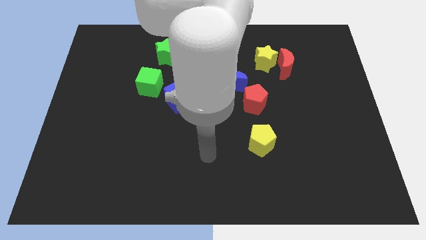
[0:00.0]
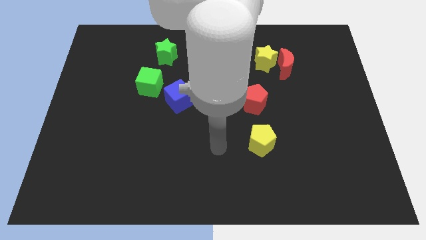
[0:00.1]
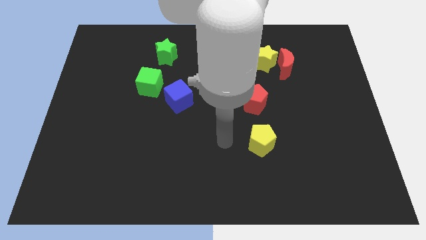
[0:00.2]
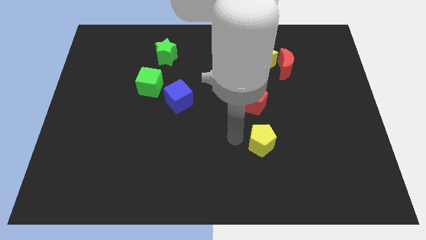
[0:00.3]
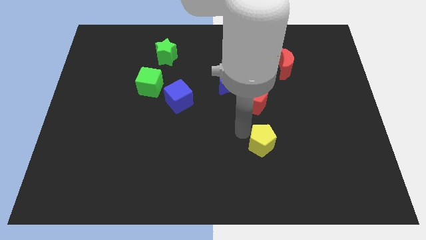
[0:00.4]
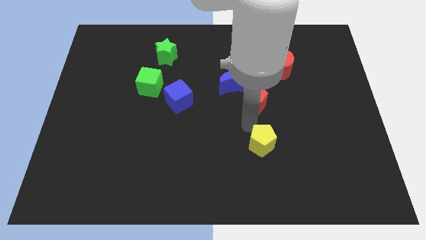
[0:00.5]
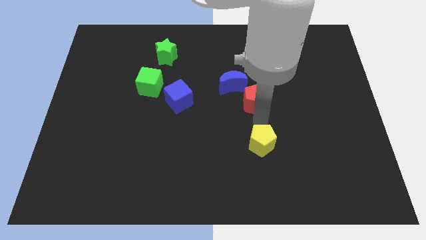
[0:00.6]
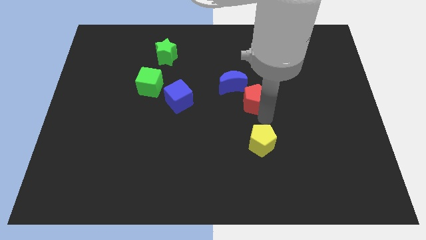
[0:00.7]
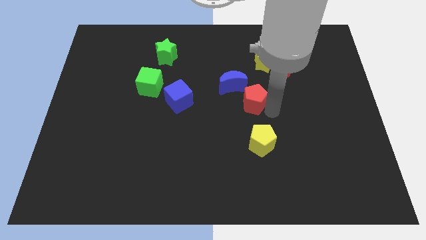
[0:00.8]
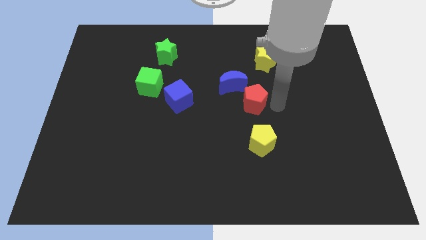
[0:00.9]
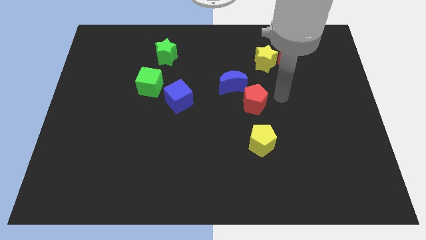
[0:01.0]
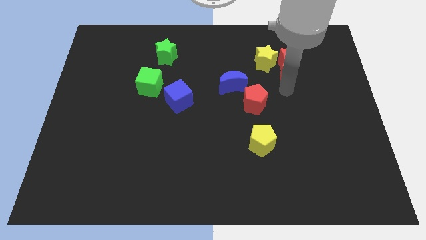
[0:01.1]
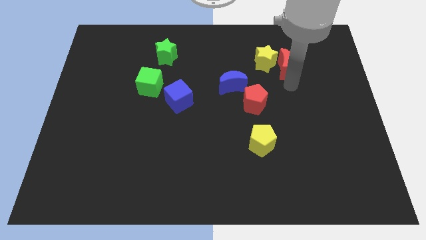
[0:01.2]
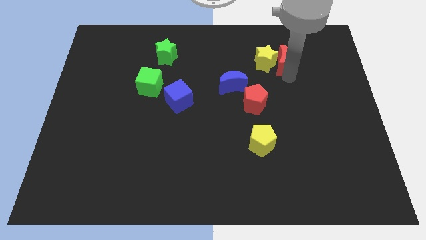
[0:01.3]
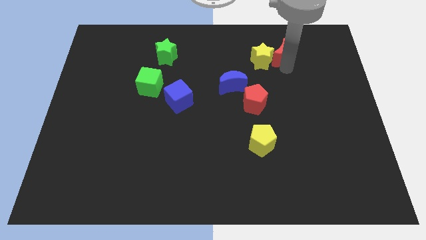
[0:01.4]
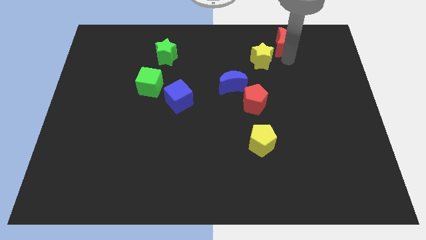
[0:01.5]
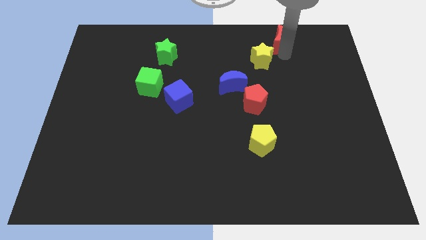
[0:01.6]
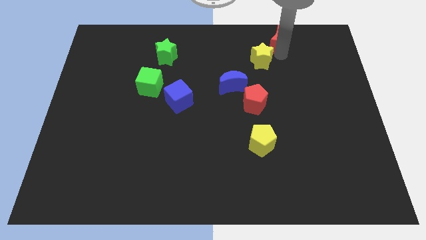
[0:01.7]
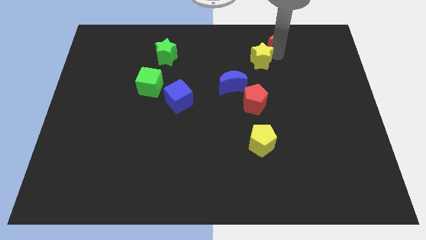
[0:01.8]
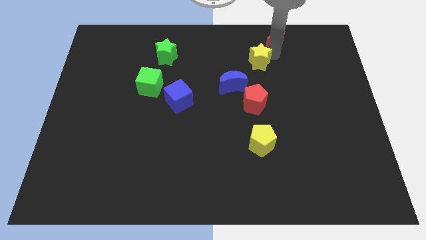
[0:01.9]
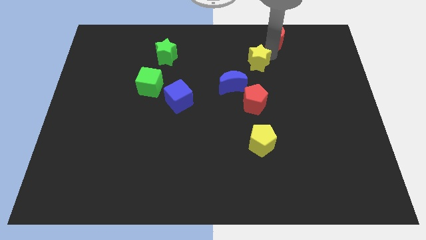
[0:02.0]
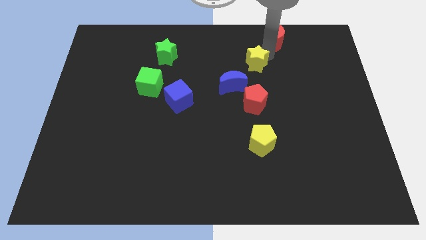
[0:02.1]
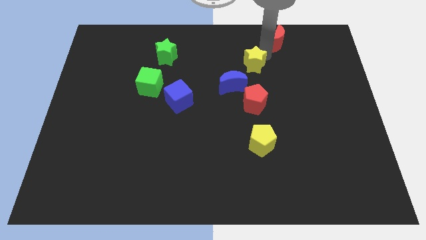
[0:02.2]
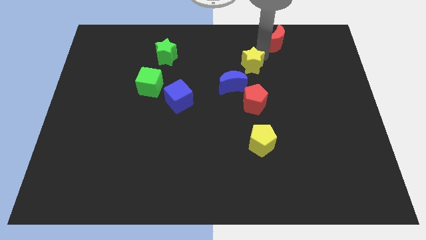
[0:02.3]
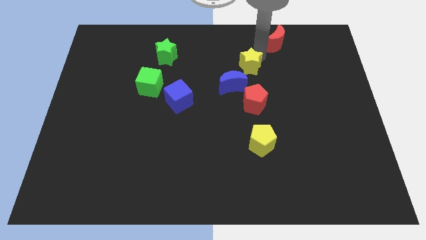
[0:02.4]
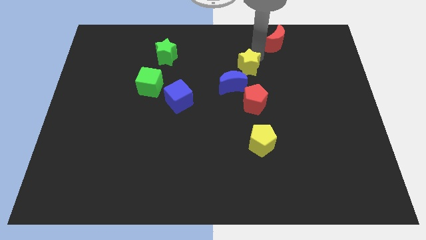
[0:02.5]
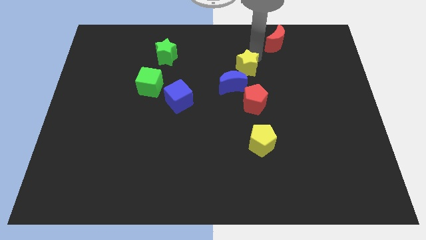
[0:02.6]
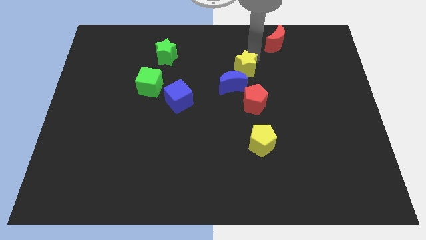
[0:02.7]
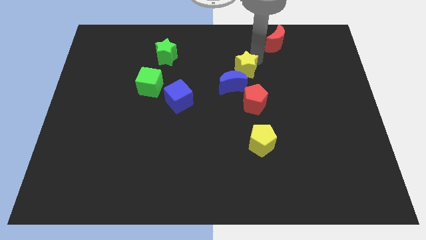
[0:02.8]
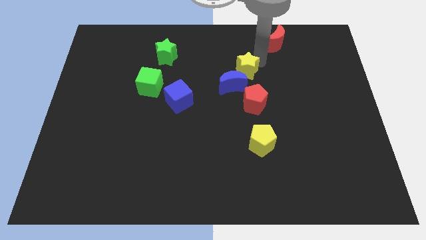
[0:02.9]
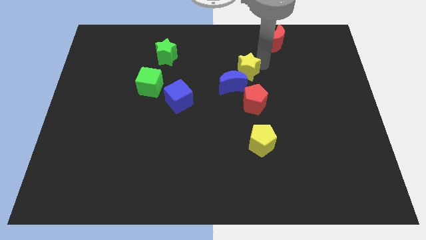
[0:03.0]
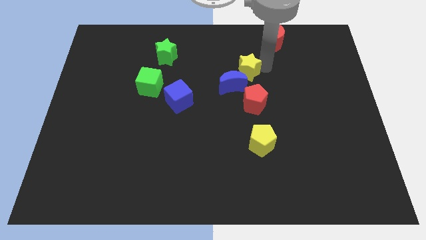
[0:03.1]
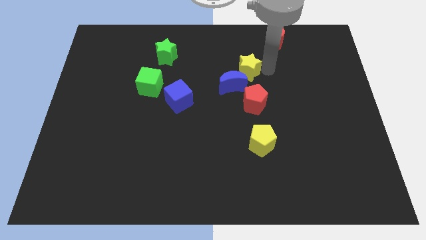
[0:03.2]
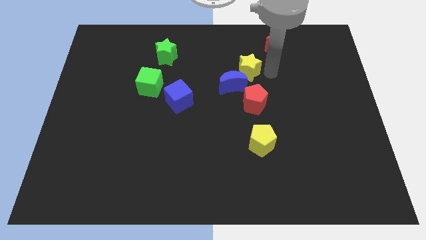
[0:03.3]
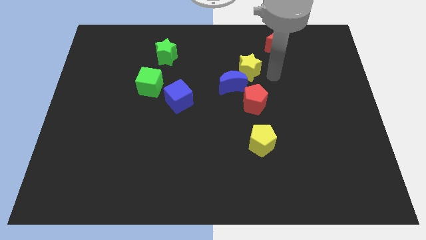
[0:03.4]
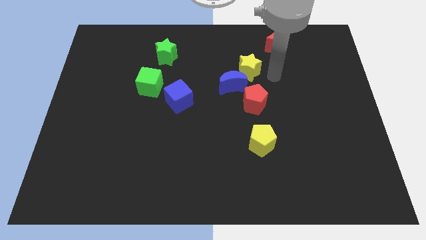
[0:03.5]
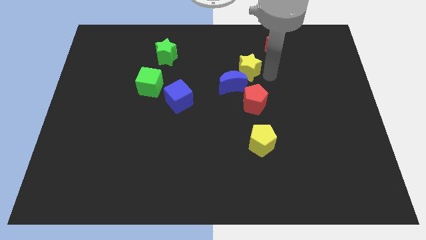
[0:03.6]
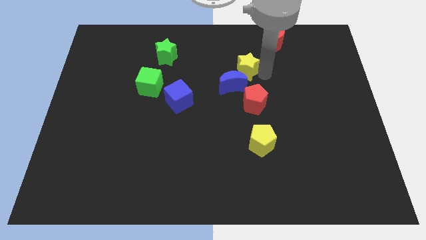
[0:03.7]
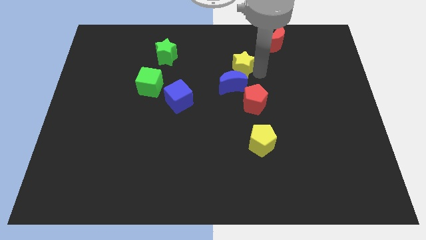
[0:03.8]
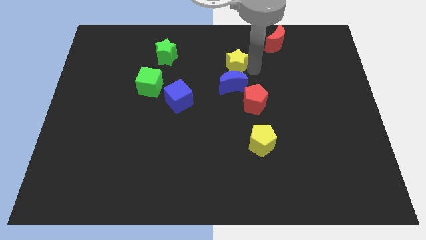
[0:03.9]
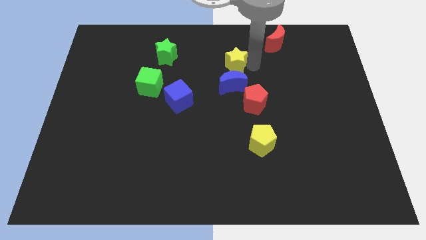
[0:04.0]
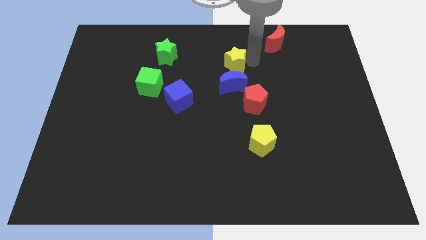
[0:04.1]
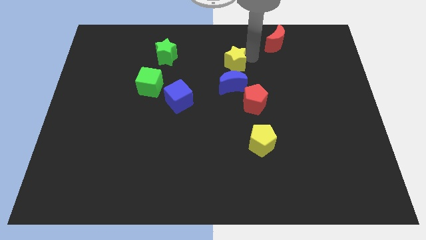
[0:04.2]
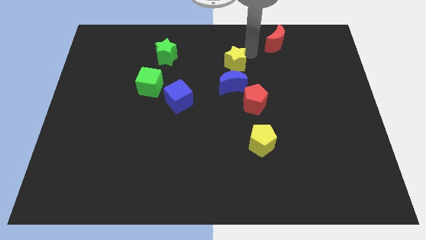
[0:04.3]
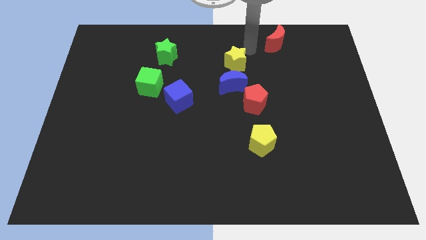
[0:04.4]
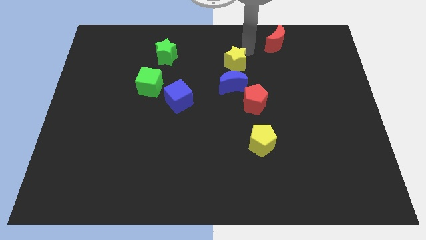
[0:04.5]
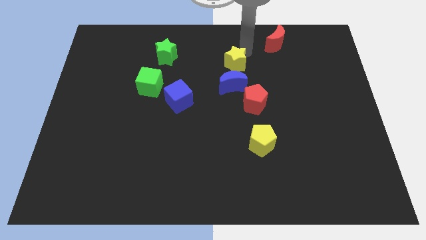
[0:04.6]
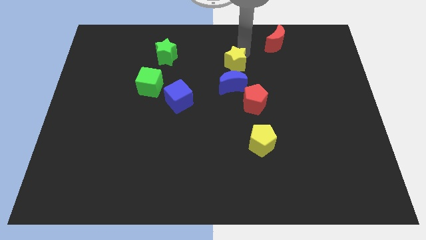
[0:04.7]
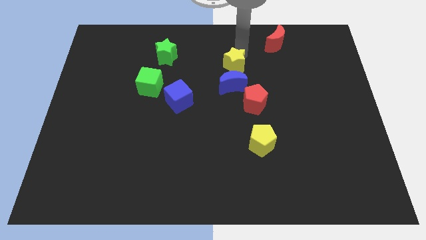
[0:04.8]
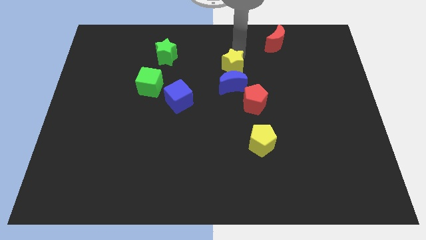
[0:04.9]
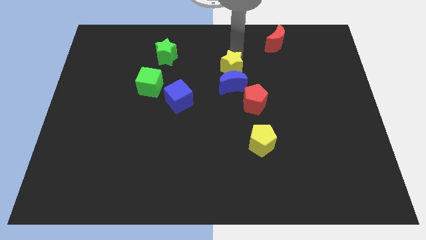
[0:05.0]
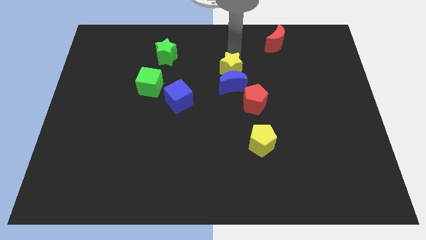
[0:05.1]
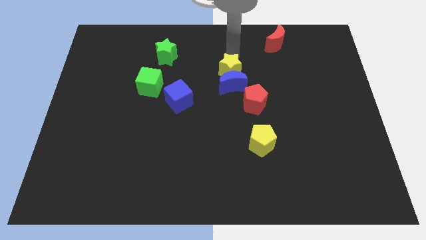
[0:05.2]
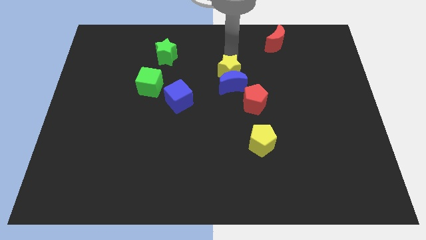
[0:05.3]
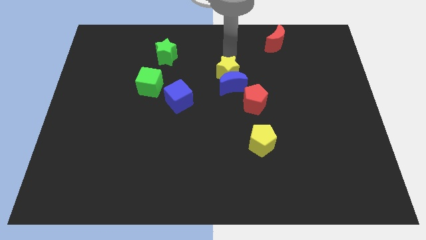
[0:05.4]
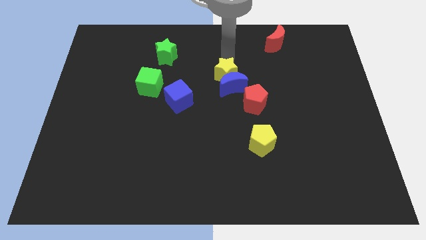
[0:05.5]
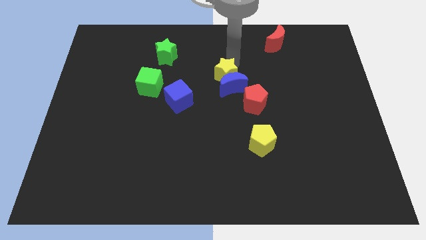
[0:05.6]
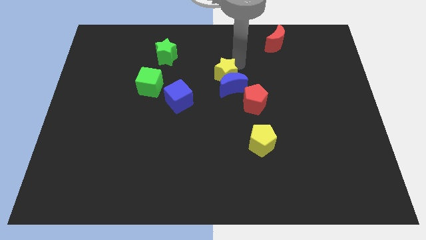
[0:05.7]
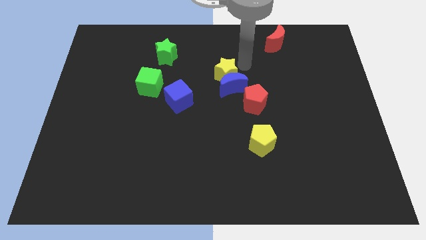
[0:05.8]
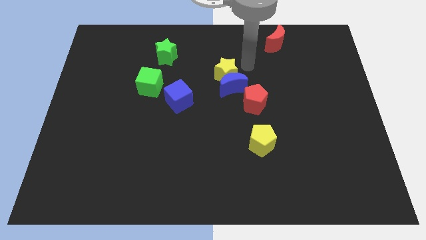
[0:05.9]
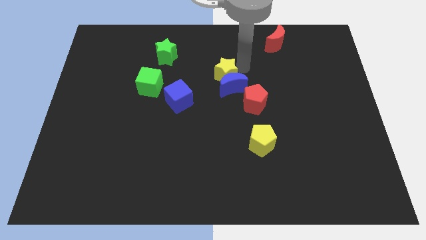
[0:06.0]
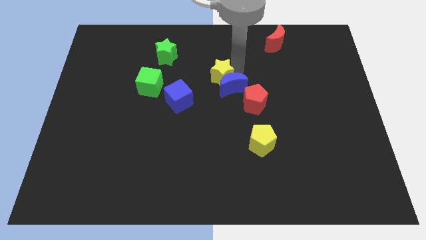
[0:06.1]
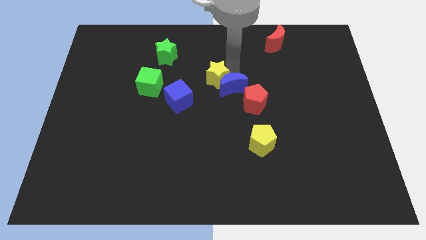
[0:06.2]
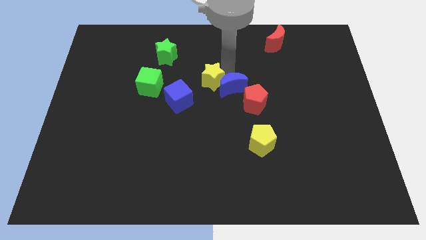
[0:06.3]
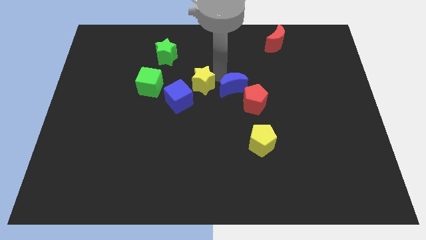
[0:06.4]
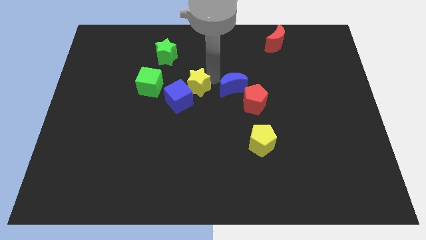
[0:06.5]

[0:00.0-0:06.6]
move the yellow star to the blue cube

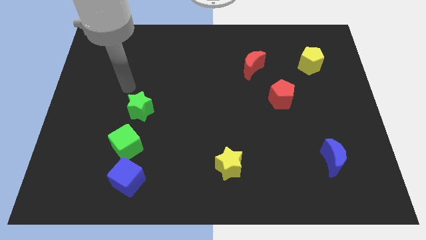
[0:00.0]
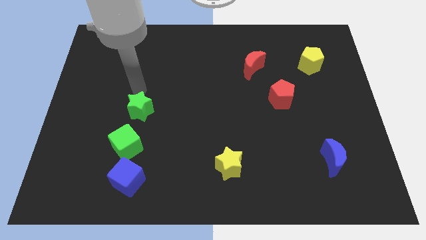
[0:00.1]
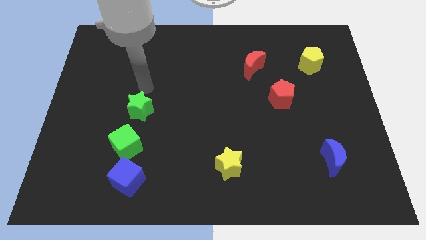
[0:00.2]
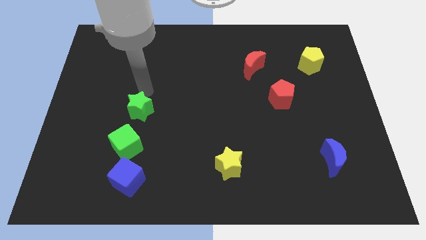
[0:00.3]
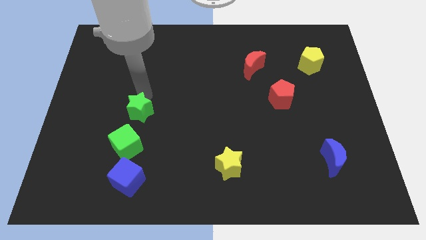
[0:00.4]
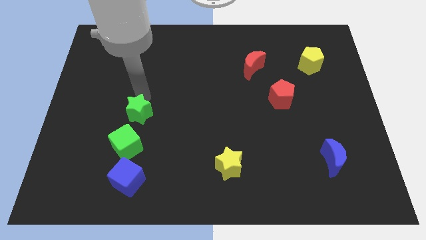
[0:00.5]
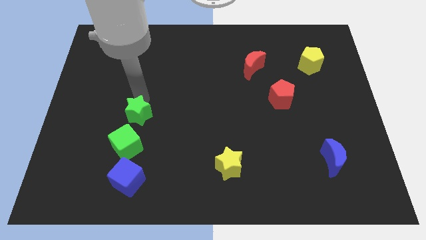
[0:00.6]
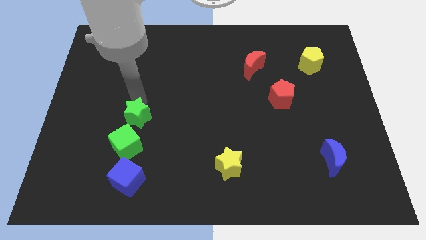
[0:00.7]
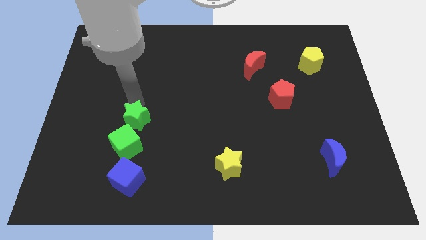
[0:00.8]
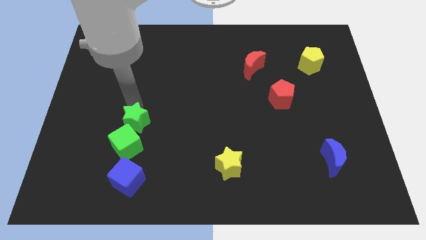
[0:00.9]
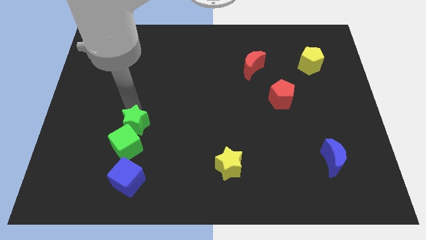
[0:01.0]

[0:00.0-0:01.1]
move the green star close to the green cube
